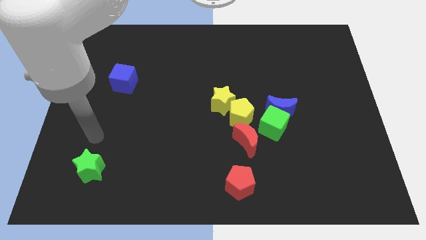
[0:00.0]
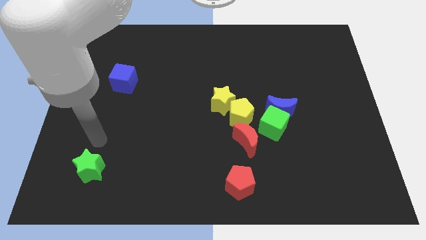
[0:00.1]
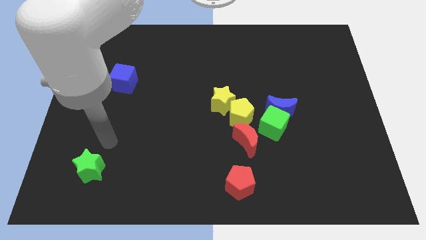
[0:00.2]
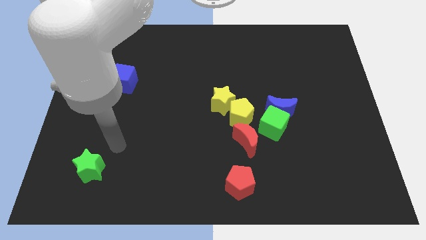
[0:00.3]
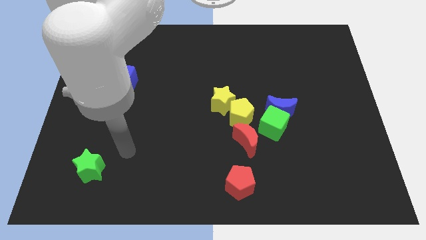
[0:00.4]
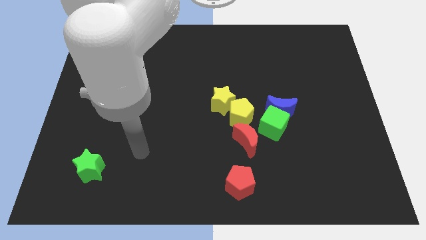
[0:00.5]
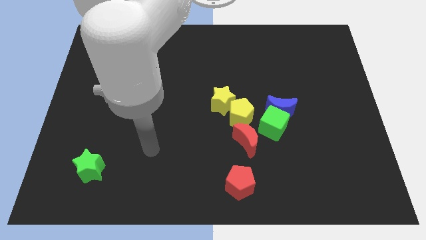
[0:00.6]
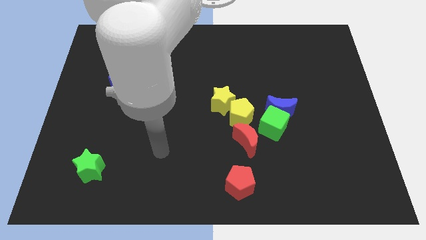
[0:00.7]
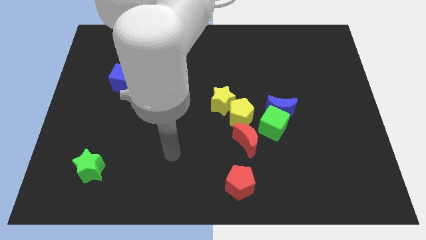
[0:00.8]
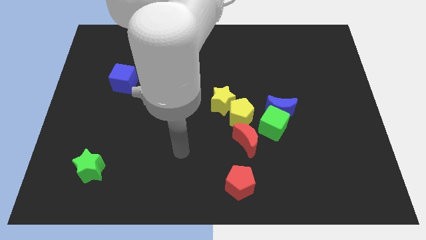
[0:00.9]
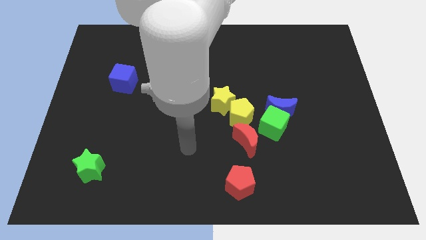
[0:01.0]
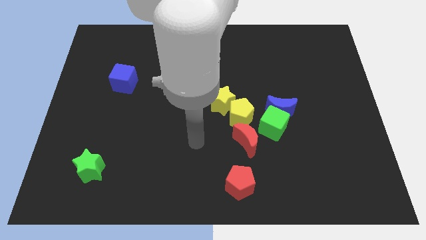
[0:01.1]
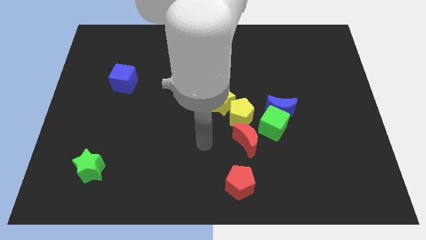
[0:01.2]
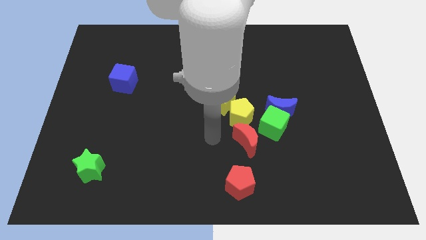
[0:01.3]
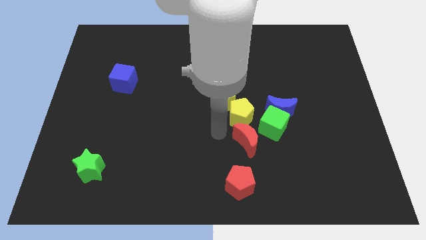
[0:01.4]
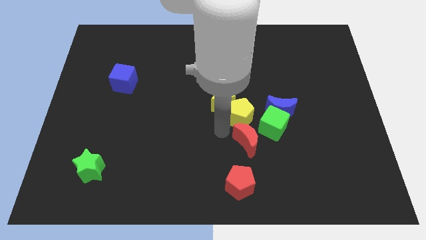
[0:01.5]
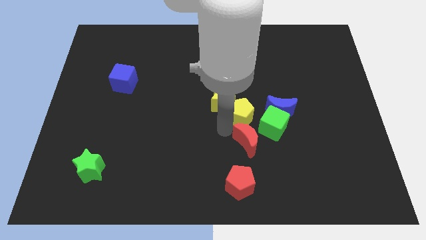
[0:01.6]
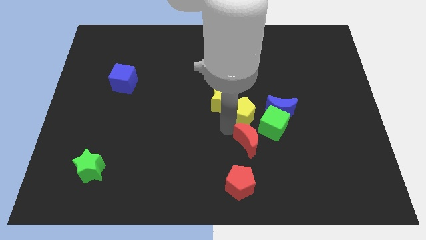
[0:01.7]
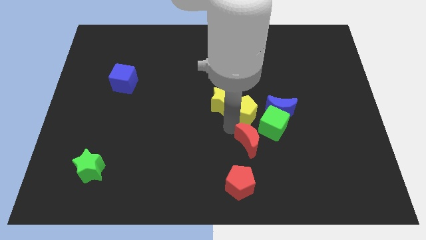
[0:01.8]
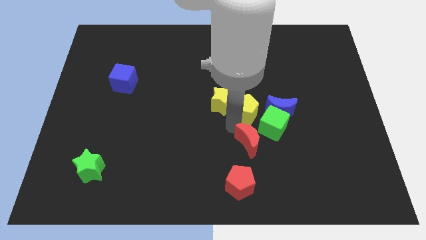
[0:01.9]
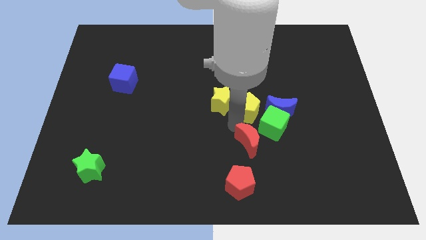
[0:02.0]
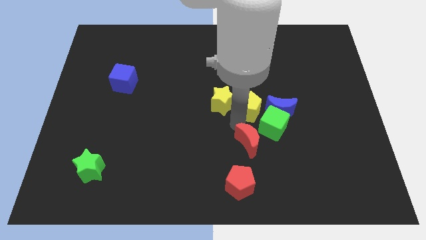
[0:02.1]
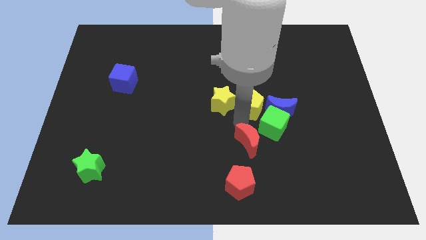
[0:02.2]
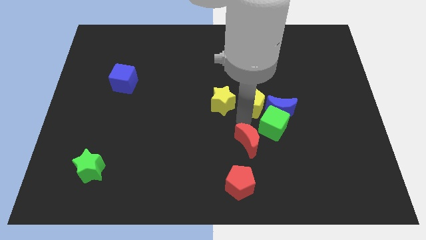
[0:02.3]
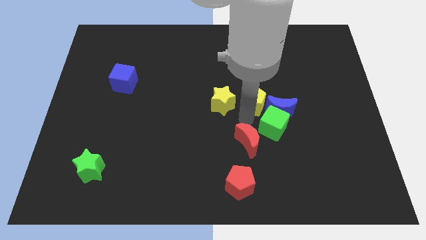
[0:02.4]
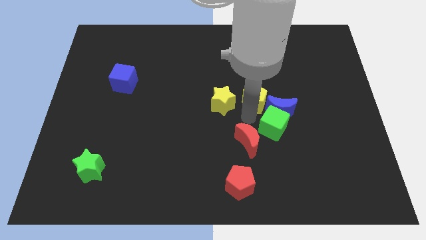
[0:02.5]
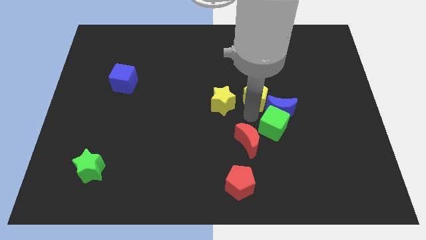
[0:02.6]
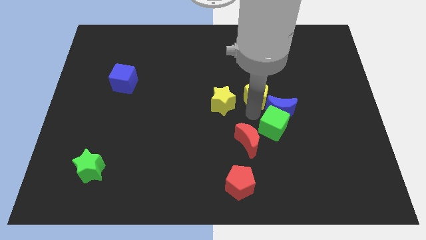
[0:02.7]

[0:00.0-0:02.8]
slide the yellow pentagon slightly diagonally up and right

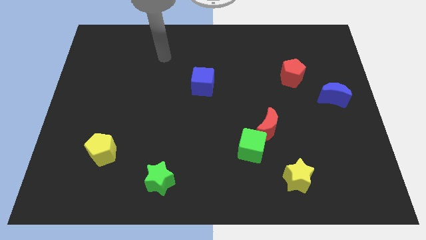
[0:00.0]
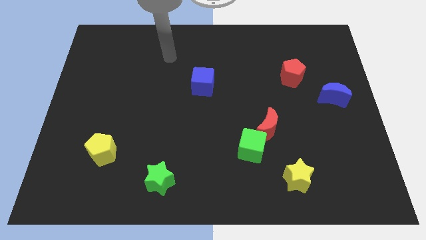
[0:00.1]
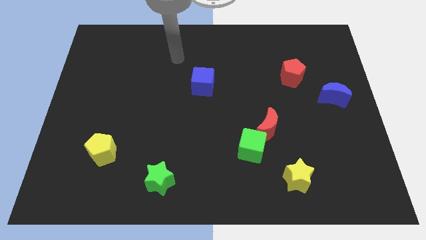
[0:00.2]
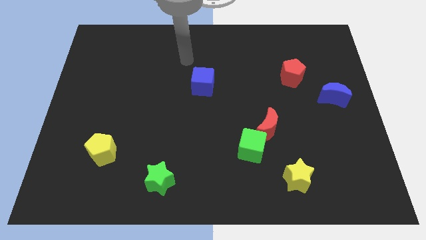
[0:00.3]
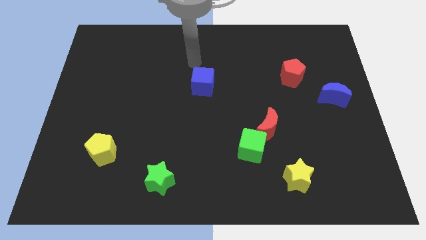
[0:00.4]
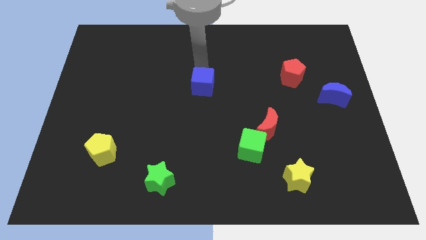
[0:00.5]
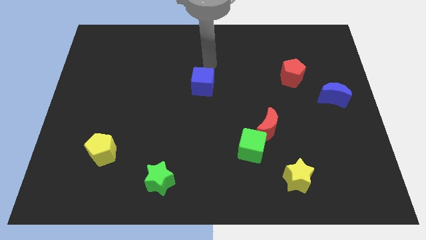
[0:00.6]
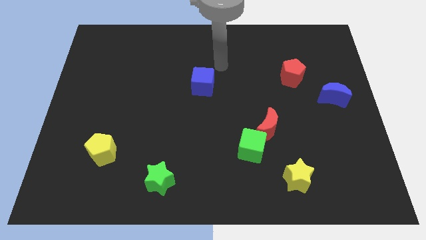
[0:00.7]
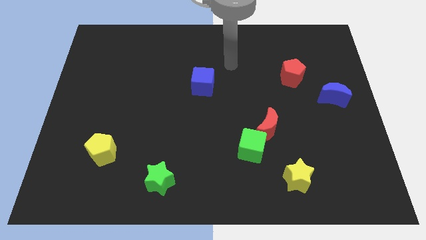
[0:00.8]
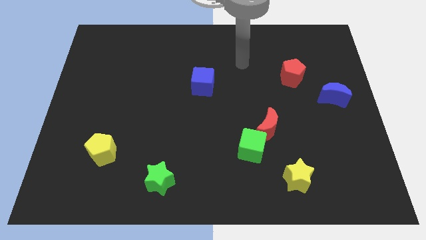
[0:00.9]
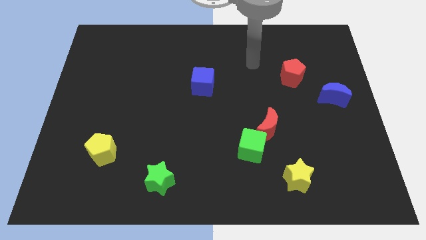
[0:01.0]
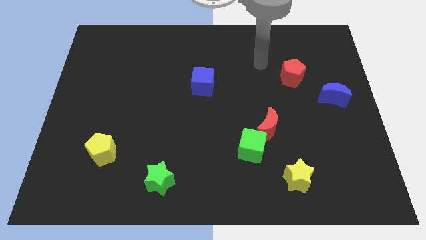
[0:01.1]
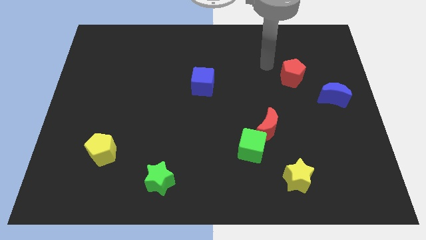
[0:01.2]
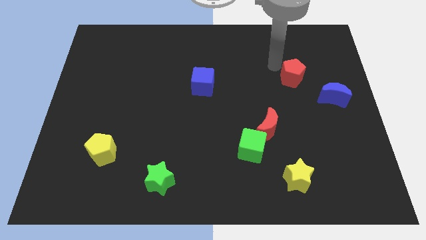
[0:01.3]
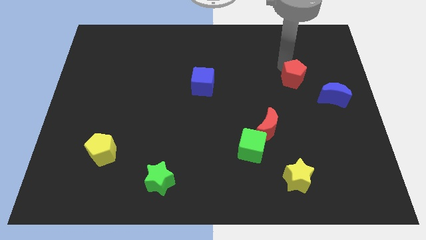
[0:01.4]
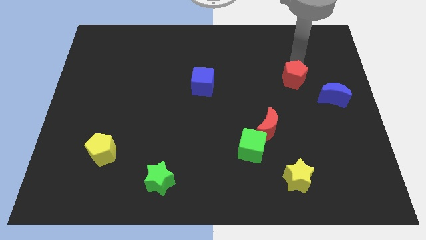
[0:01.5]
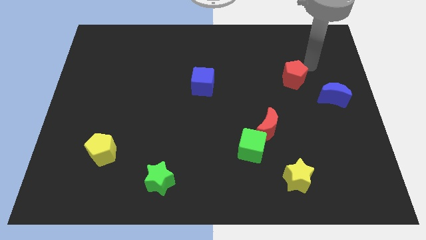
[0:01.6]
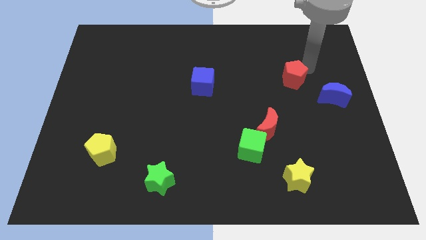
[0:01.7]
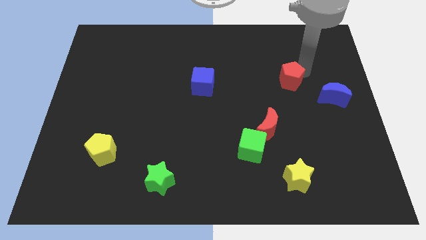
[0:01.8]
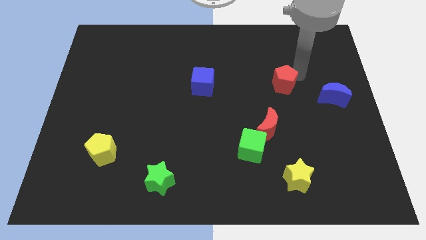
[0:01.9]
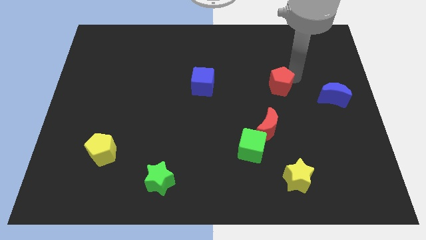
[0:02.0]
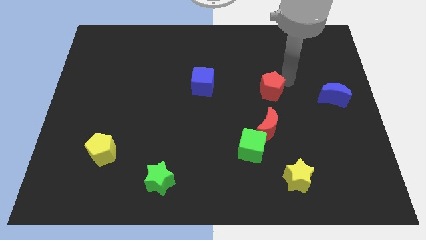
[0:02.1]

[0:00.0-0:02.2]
slide the red pentagon somewhat down and to the left

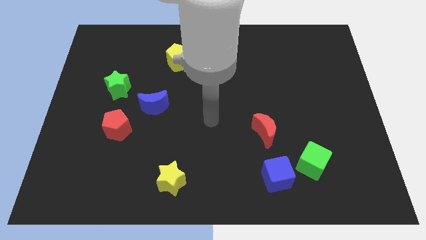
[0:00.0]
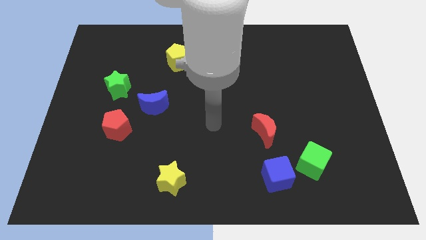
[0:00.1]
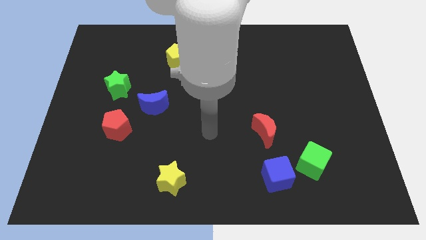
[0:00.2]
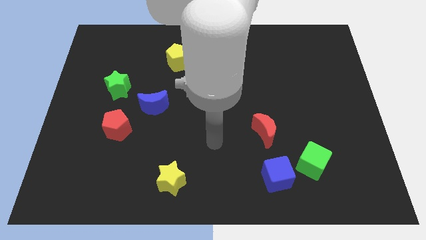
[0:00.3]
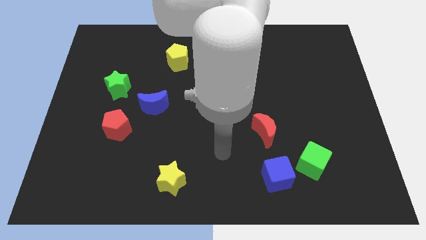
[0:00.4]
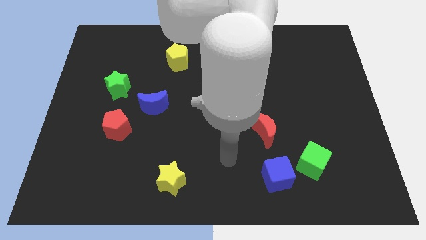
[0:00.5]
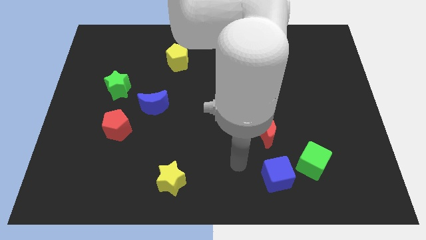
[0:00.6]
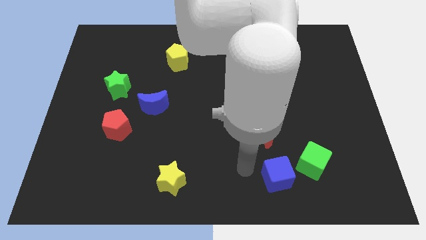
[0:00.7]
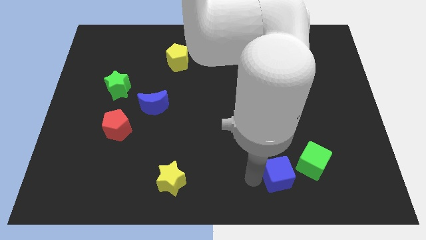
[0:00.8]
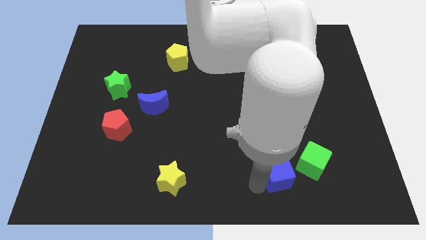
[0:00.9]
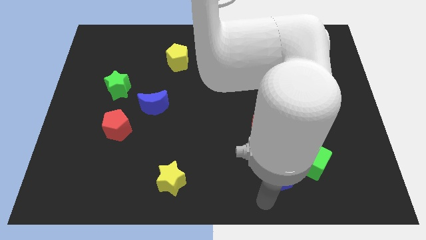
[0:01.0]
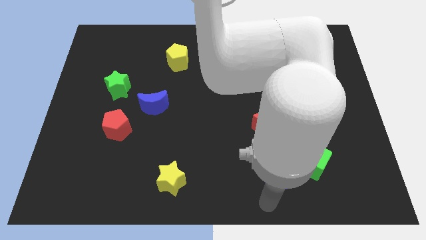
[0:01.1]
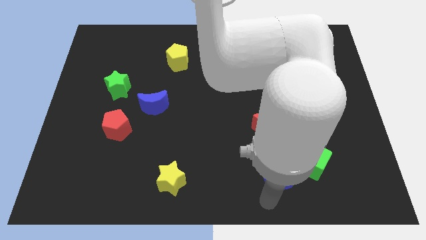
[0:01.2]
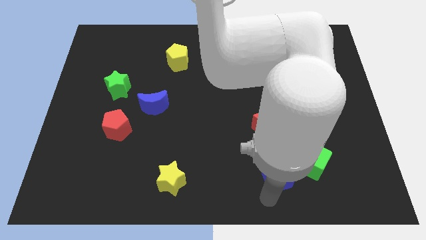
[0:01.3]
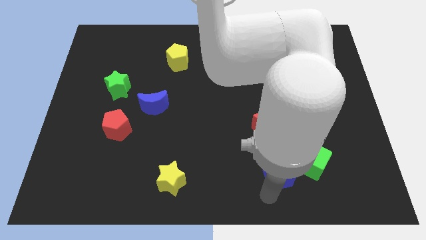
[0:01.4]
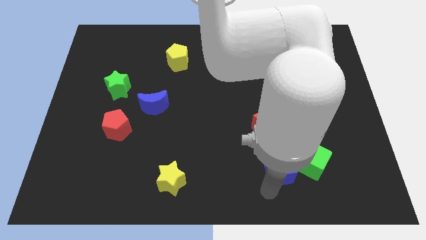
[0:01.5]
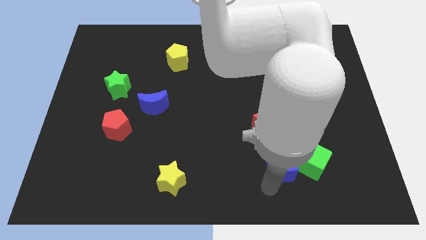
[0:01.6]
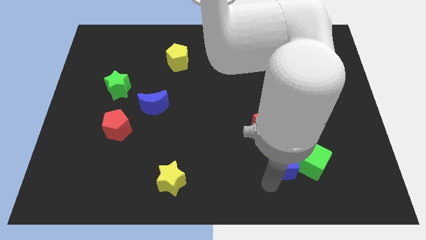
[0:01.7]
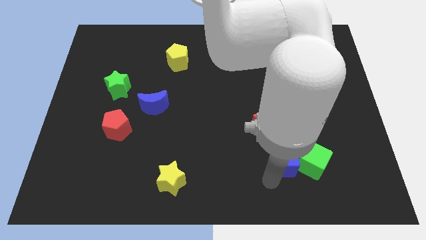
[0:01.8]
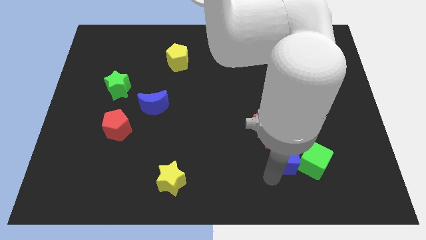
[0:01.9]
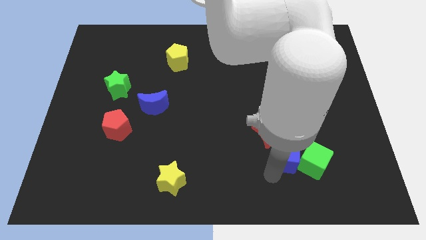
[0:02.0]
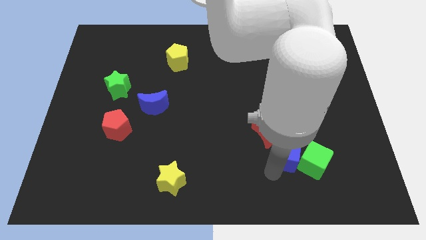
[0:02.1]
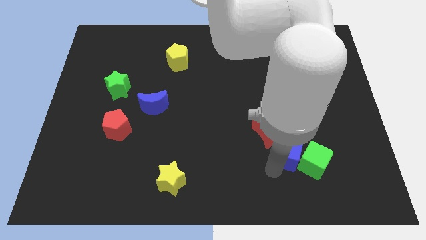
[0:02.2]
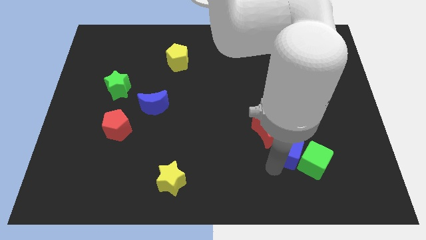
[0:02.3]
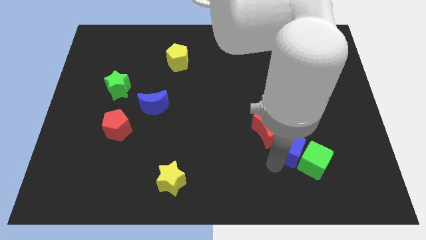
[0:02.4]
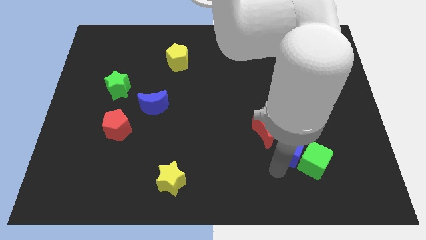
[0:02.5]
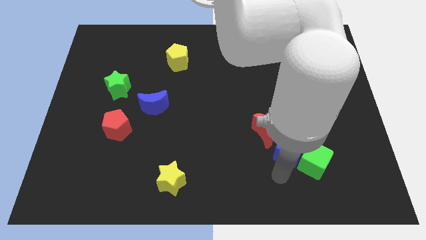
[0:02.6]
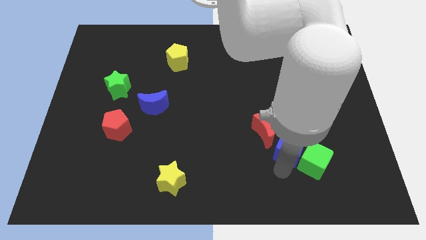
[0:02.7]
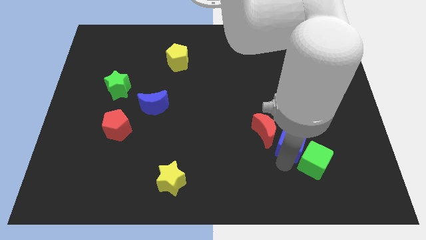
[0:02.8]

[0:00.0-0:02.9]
slightly push the blue cube upwards
